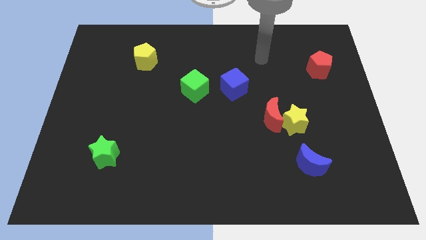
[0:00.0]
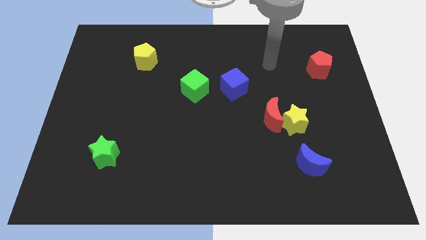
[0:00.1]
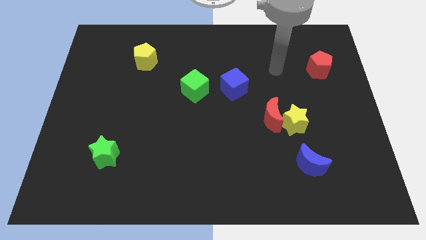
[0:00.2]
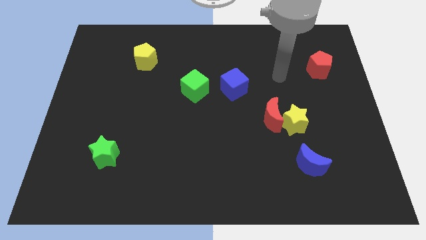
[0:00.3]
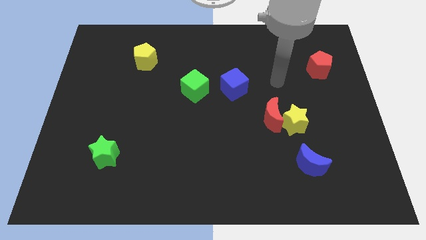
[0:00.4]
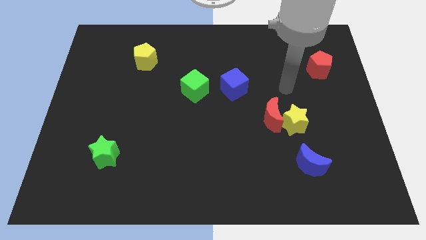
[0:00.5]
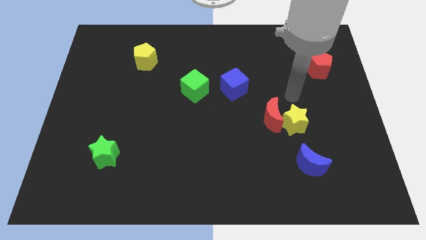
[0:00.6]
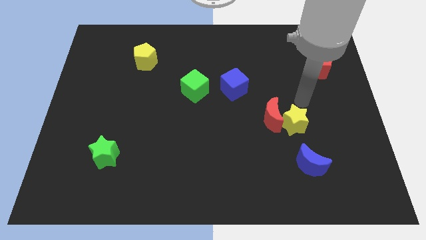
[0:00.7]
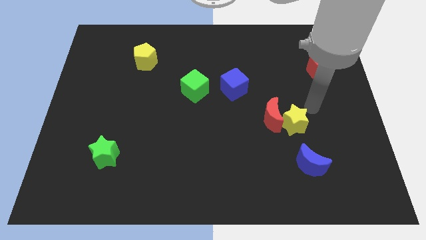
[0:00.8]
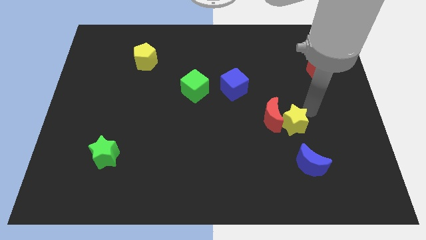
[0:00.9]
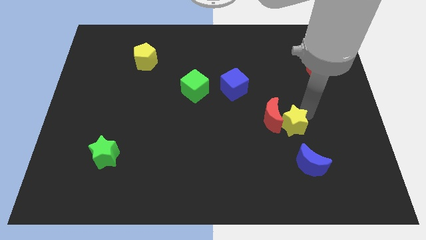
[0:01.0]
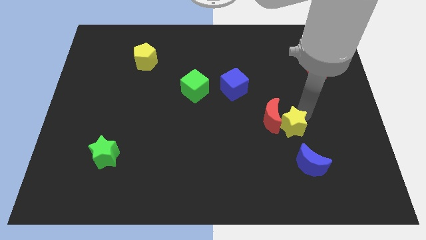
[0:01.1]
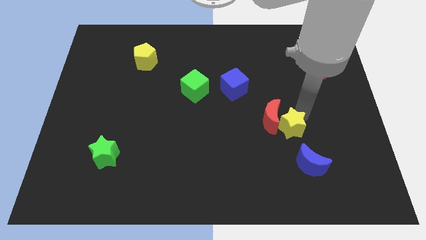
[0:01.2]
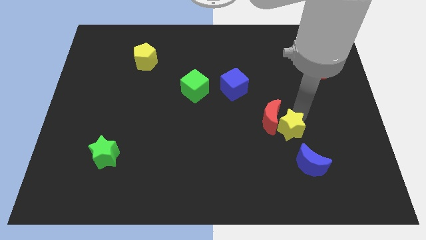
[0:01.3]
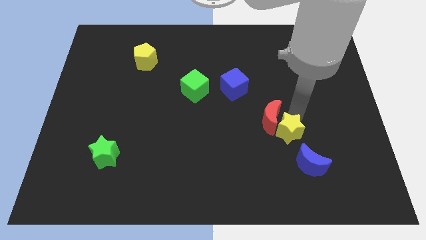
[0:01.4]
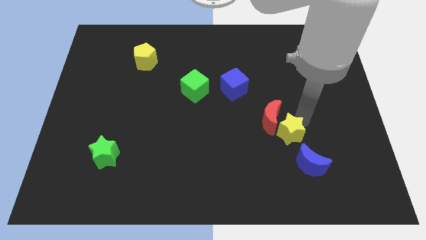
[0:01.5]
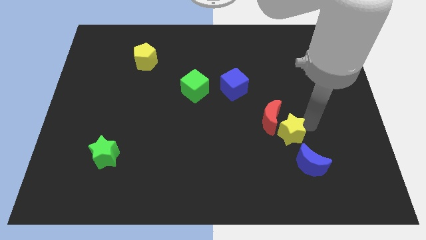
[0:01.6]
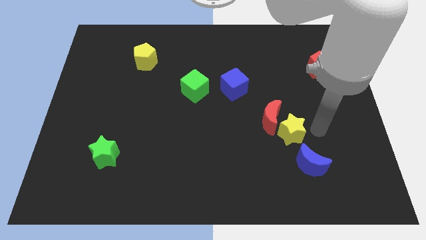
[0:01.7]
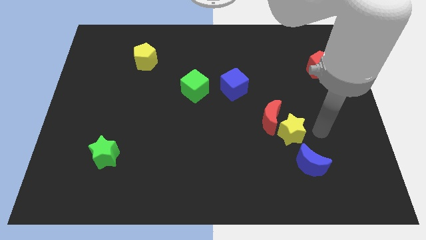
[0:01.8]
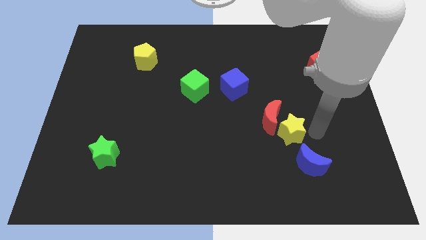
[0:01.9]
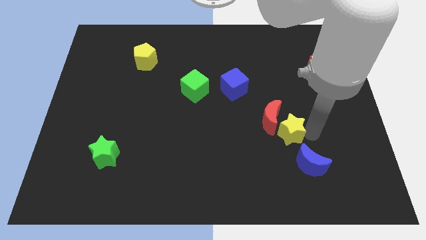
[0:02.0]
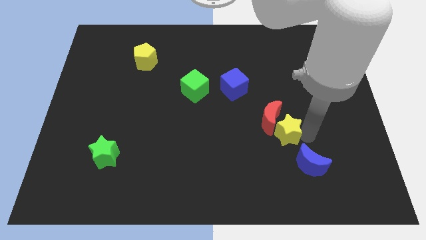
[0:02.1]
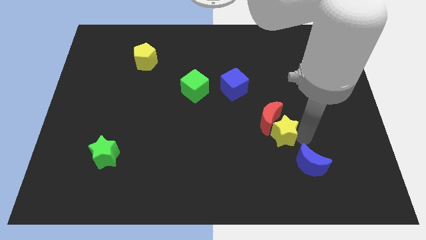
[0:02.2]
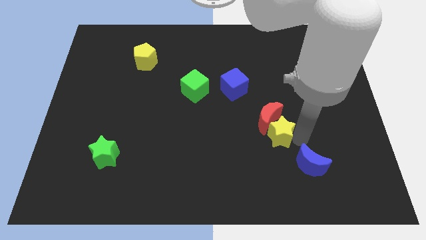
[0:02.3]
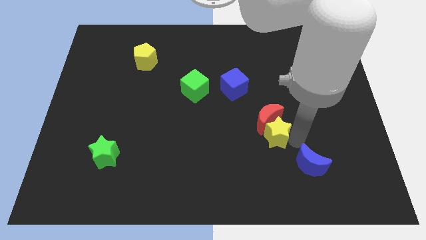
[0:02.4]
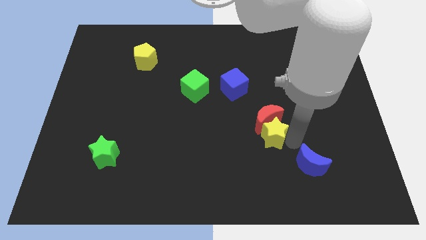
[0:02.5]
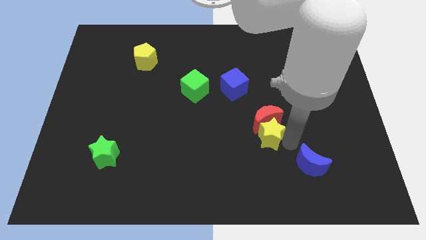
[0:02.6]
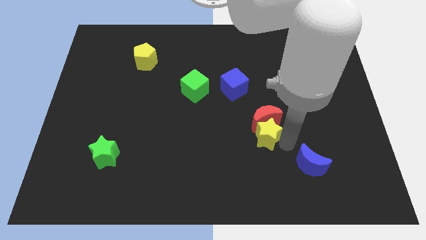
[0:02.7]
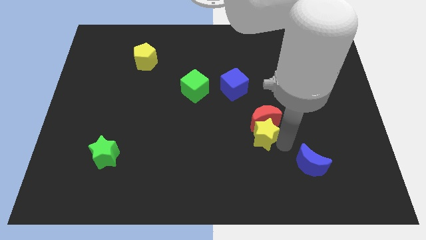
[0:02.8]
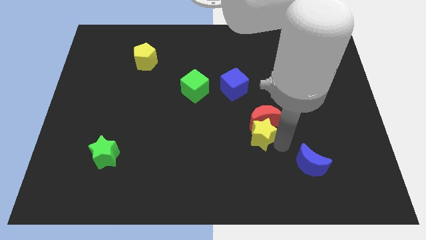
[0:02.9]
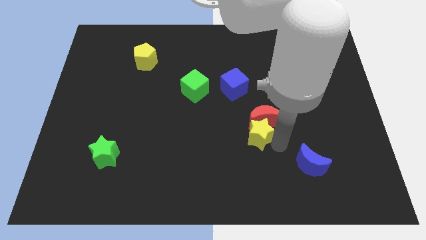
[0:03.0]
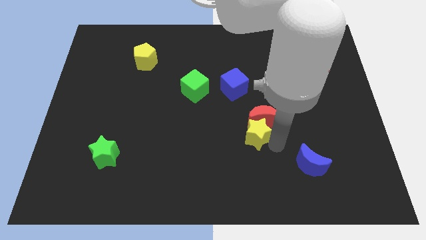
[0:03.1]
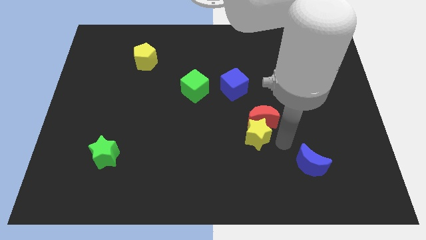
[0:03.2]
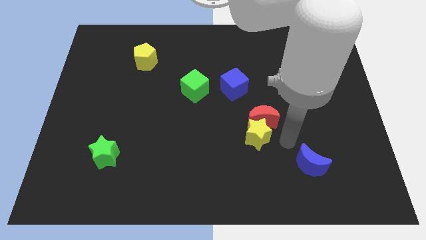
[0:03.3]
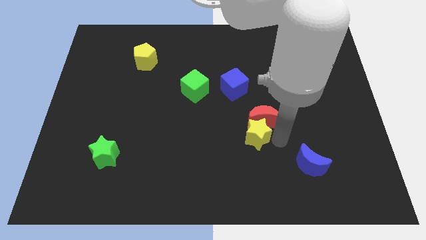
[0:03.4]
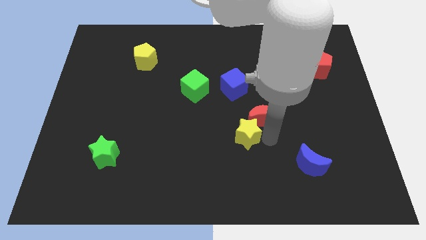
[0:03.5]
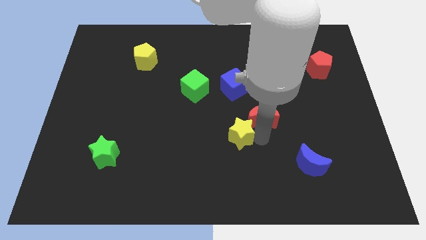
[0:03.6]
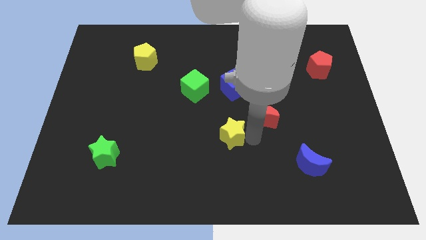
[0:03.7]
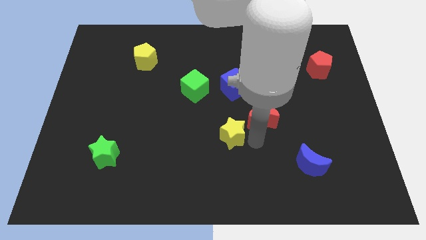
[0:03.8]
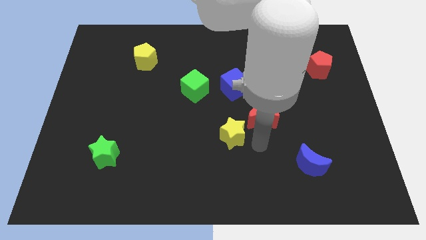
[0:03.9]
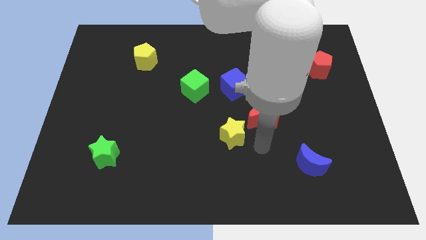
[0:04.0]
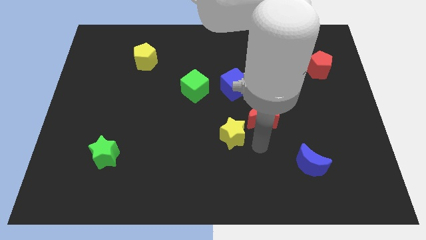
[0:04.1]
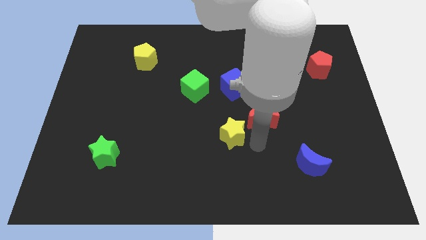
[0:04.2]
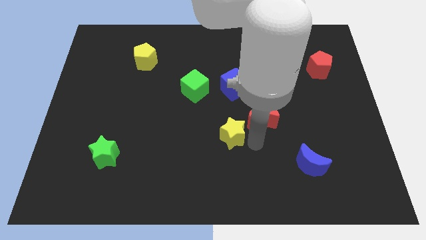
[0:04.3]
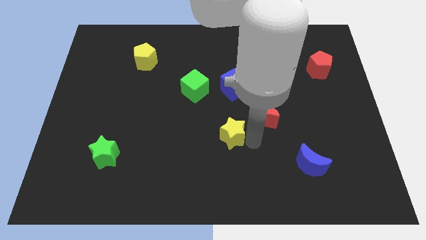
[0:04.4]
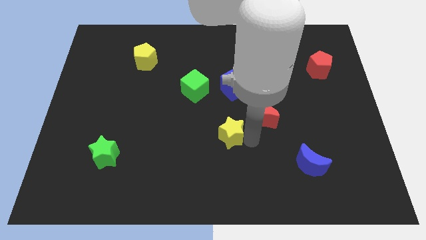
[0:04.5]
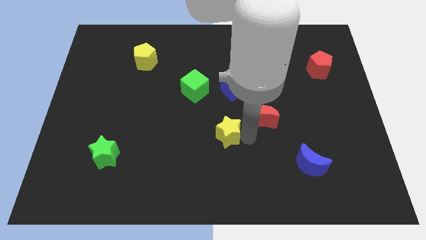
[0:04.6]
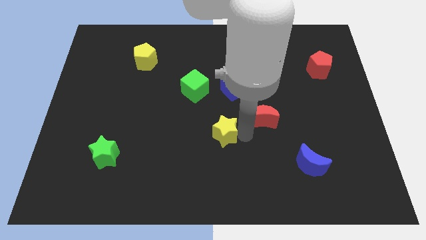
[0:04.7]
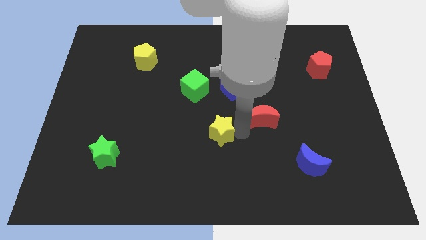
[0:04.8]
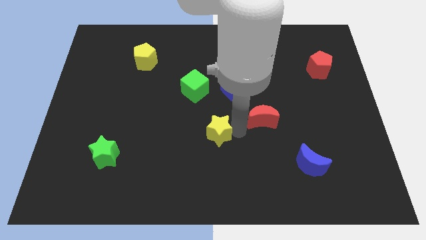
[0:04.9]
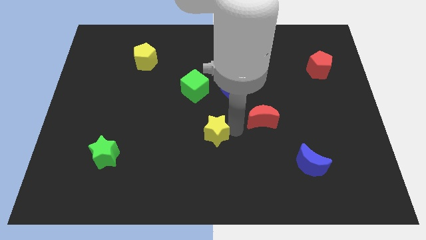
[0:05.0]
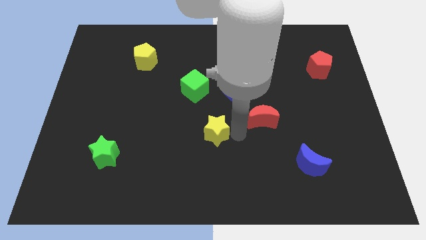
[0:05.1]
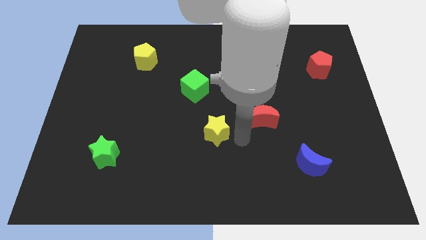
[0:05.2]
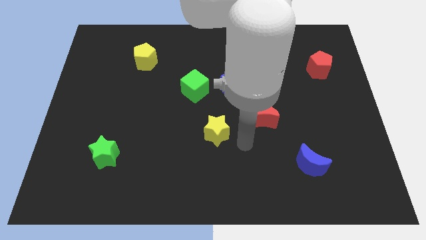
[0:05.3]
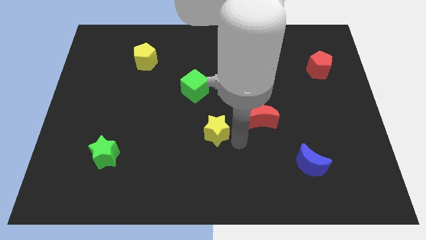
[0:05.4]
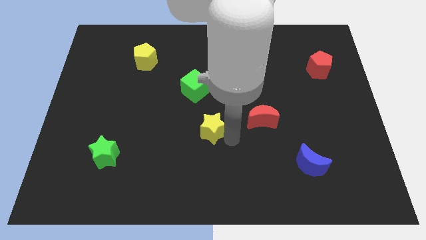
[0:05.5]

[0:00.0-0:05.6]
put the yellow star to the bottom of the green cube

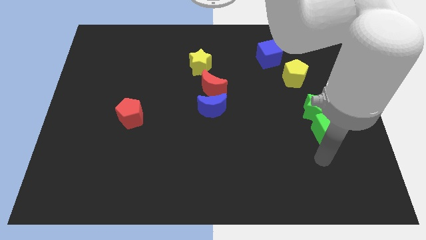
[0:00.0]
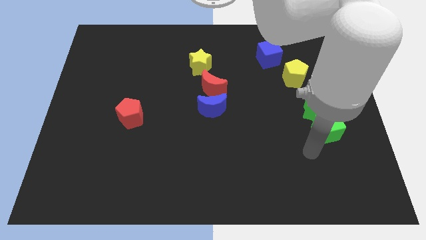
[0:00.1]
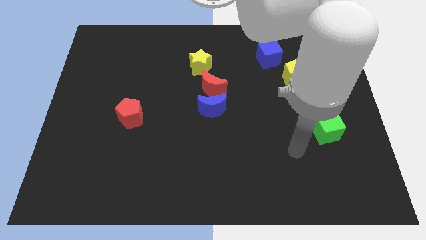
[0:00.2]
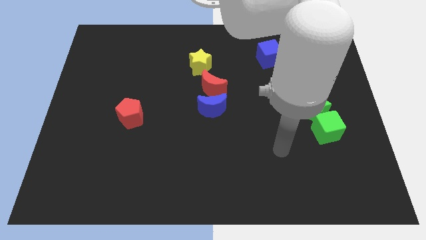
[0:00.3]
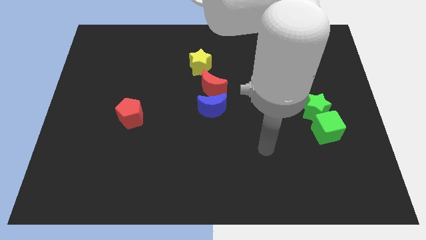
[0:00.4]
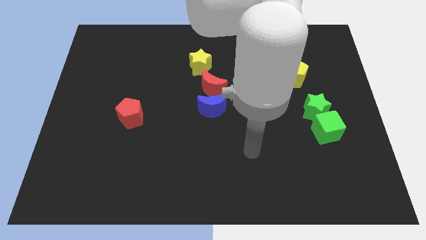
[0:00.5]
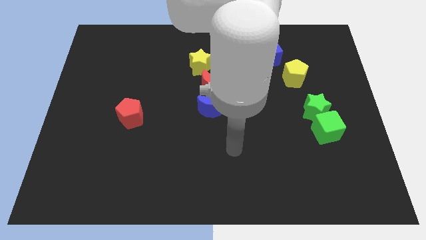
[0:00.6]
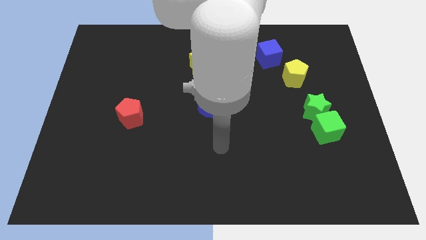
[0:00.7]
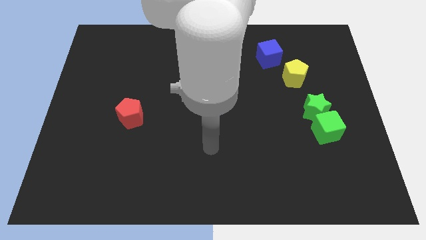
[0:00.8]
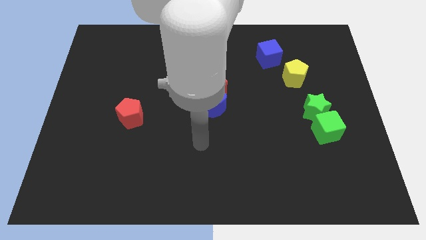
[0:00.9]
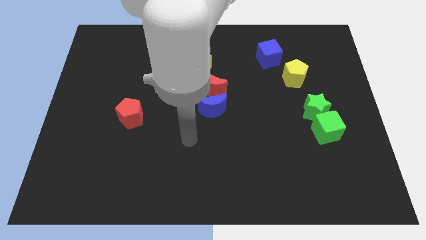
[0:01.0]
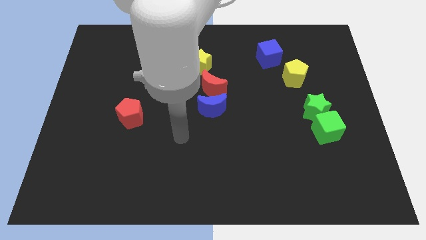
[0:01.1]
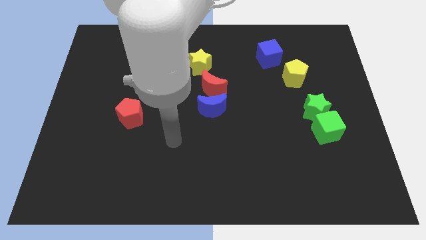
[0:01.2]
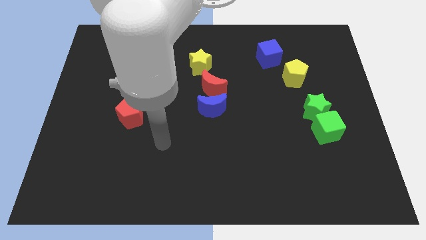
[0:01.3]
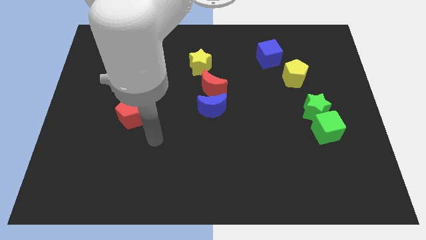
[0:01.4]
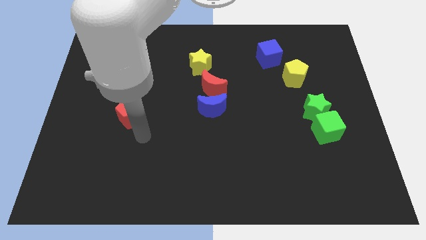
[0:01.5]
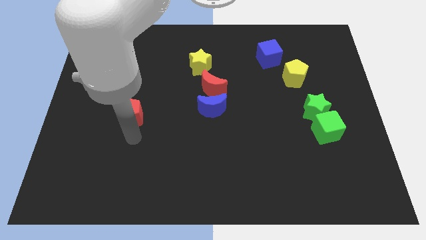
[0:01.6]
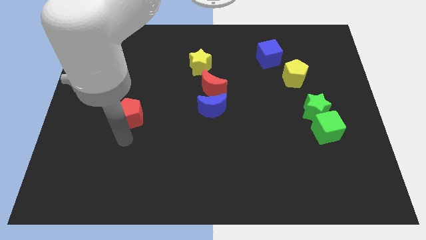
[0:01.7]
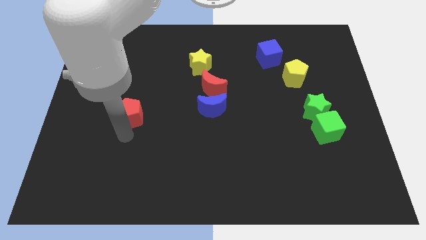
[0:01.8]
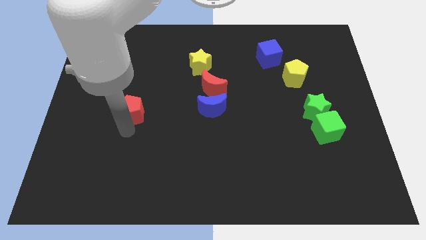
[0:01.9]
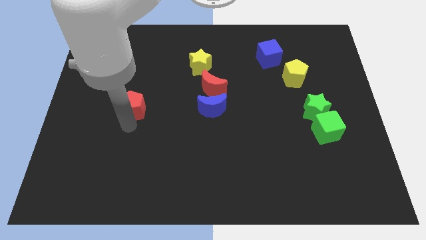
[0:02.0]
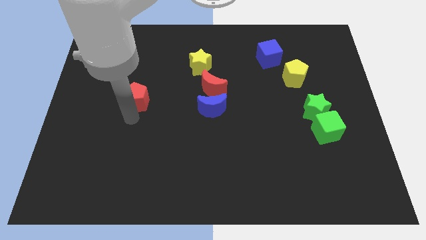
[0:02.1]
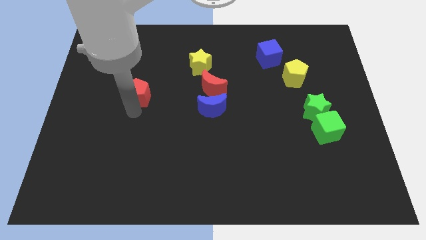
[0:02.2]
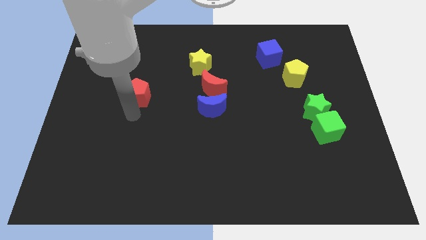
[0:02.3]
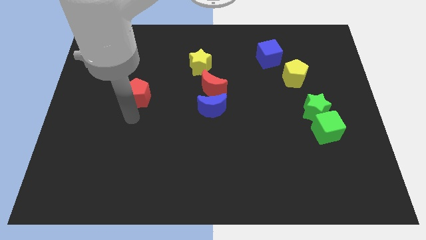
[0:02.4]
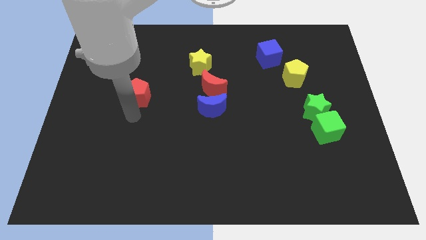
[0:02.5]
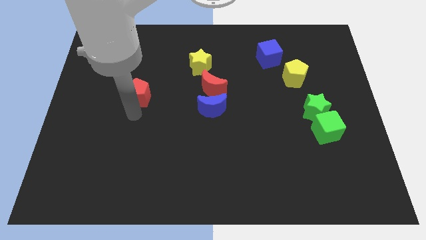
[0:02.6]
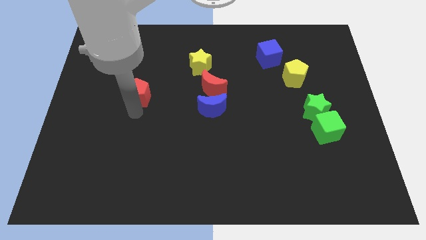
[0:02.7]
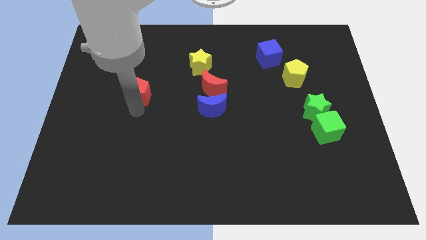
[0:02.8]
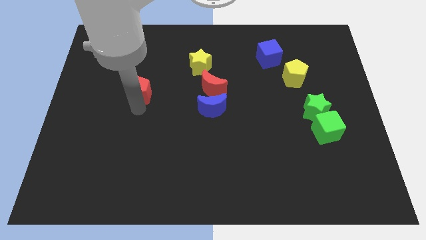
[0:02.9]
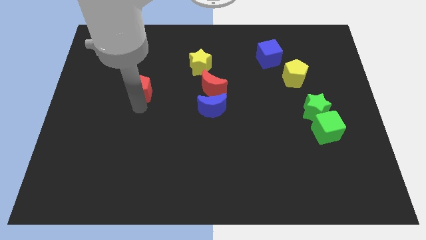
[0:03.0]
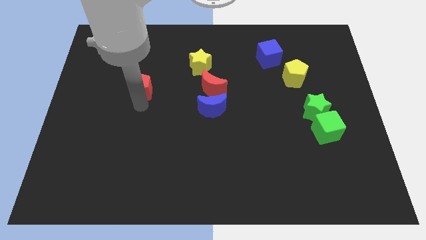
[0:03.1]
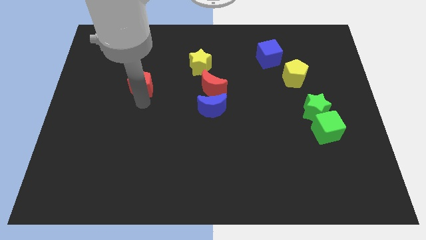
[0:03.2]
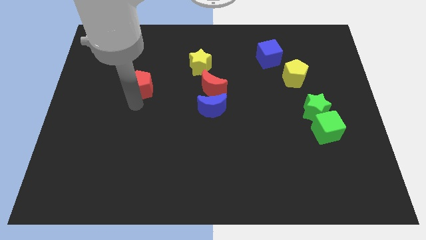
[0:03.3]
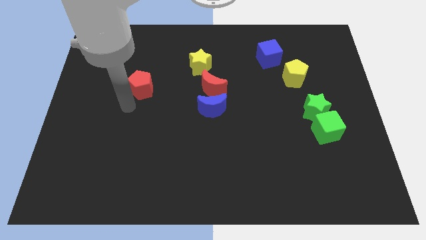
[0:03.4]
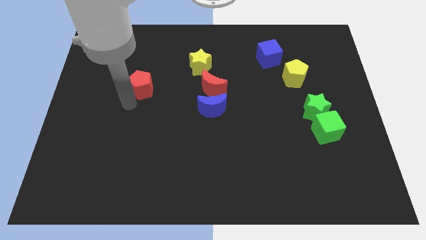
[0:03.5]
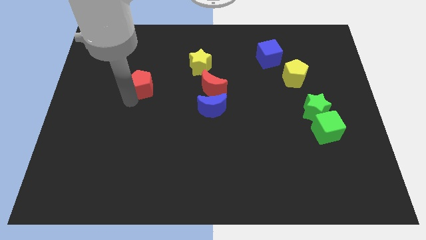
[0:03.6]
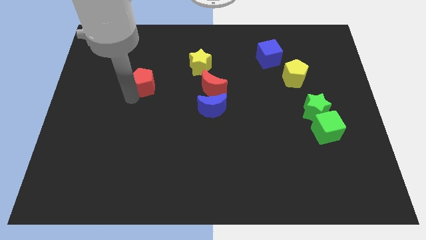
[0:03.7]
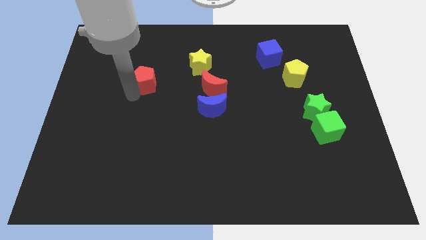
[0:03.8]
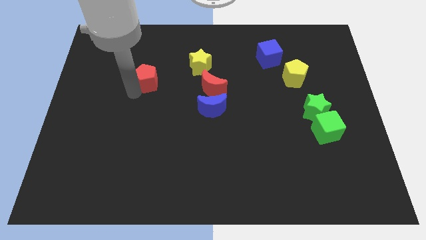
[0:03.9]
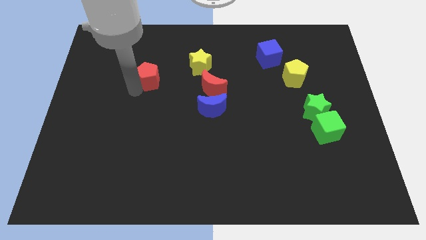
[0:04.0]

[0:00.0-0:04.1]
put the red pentagon just left of the yellow star
